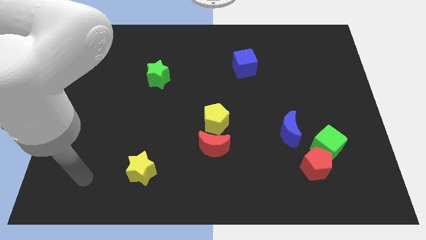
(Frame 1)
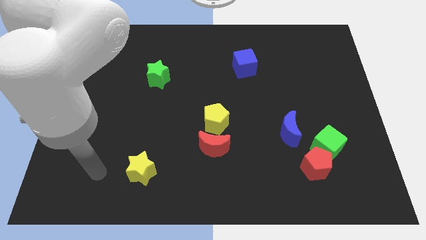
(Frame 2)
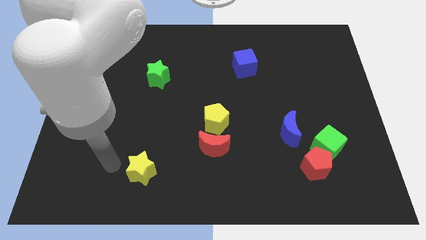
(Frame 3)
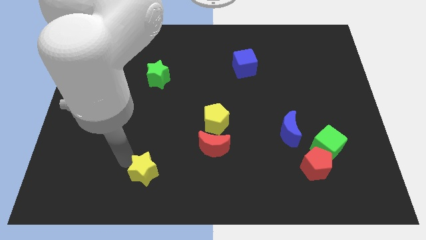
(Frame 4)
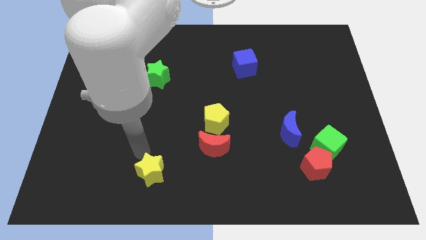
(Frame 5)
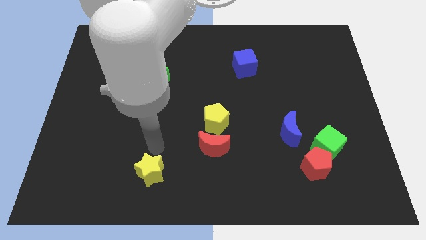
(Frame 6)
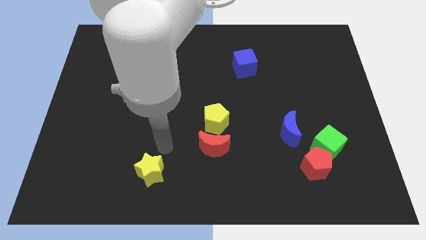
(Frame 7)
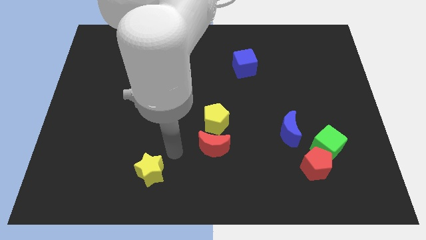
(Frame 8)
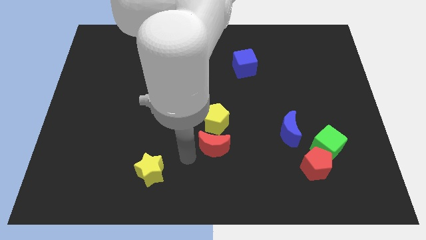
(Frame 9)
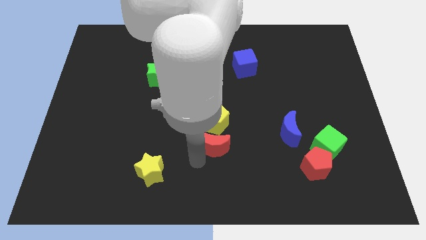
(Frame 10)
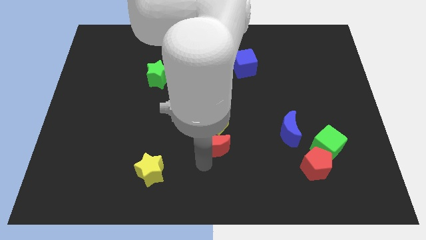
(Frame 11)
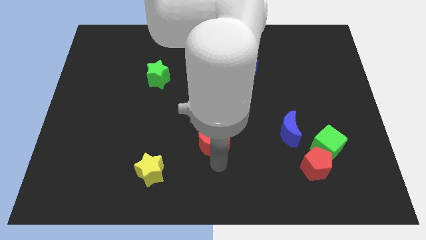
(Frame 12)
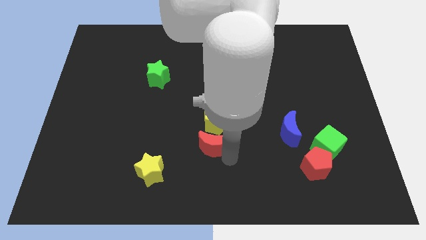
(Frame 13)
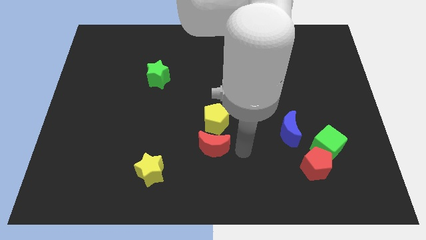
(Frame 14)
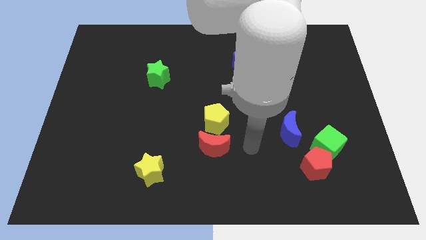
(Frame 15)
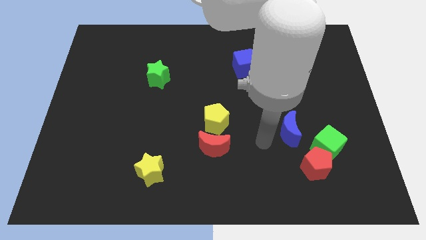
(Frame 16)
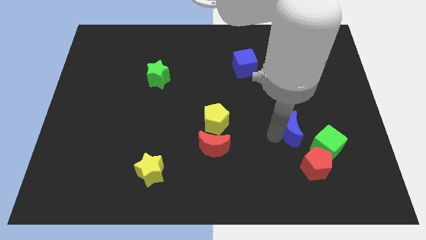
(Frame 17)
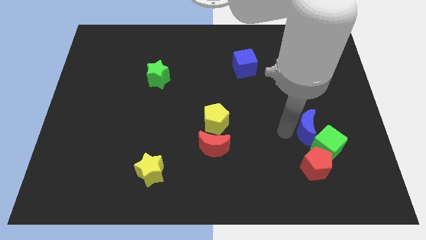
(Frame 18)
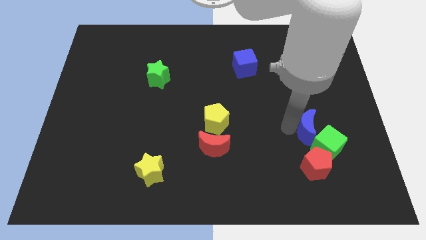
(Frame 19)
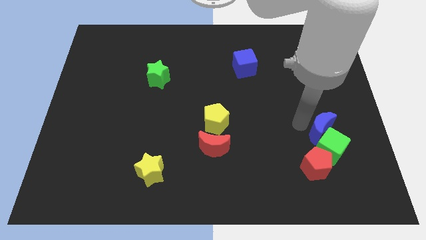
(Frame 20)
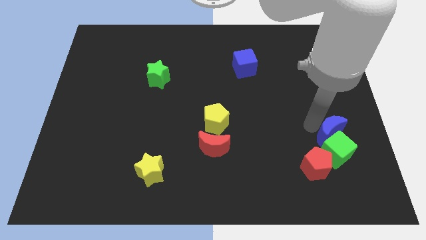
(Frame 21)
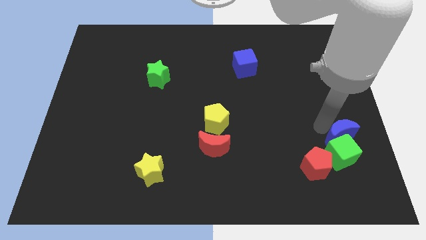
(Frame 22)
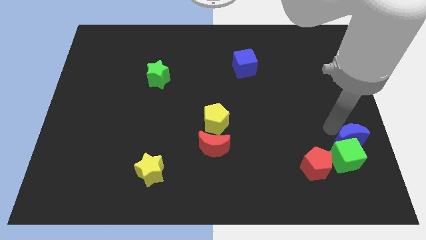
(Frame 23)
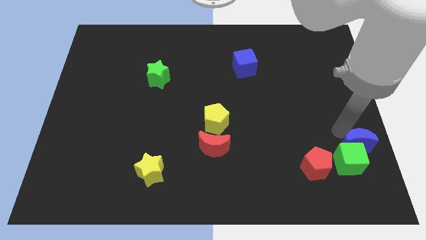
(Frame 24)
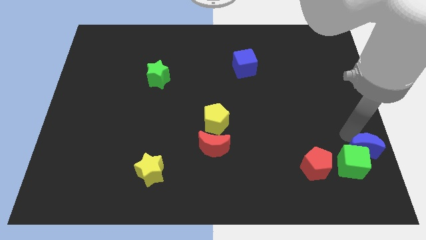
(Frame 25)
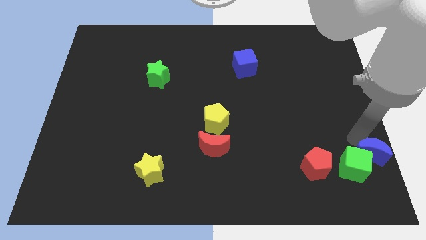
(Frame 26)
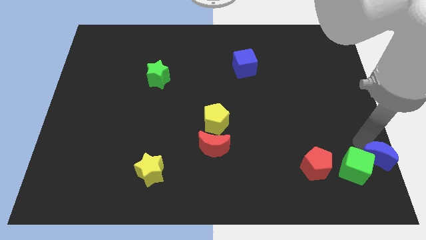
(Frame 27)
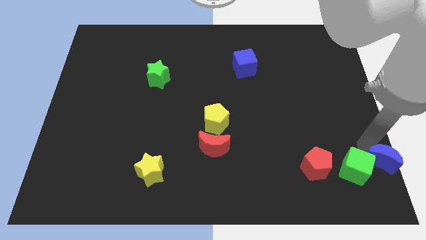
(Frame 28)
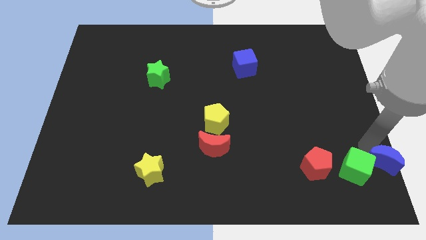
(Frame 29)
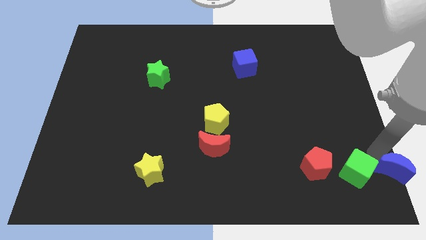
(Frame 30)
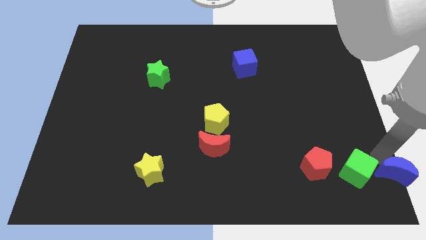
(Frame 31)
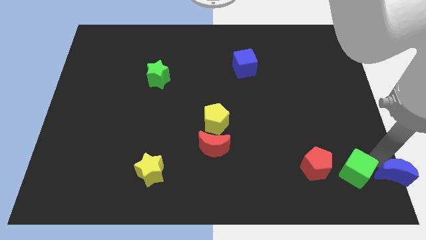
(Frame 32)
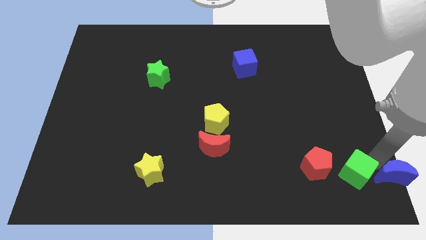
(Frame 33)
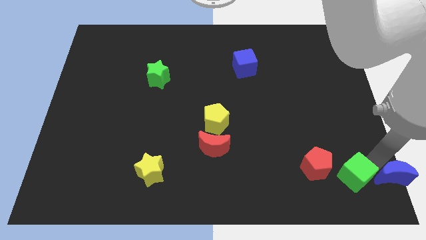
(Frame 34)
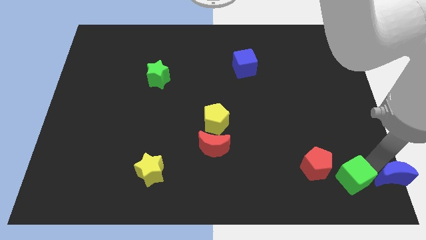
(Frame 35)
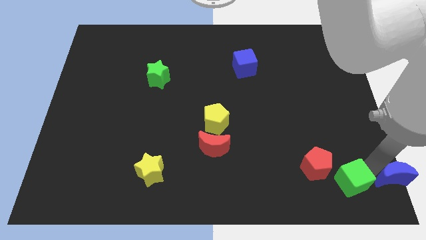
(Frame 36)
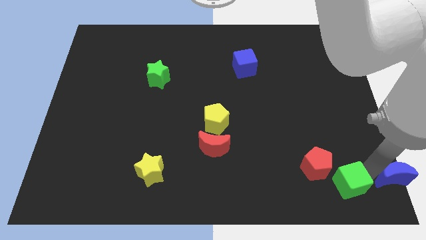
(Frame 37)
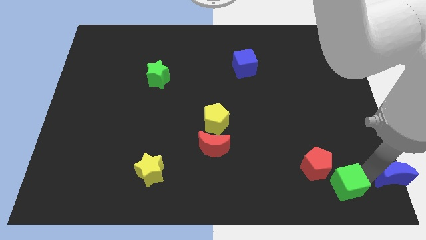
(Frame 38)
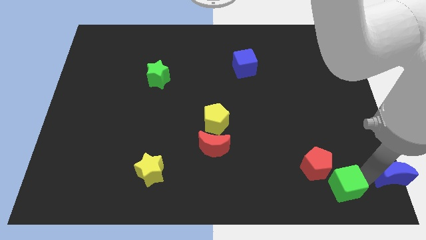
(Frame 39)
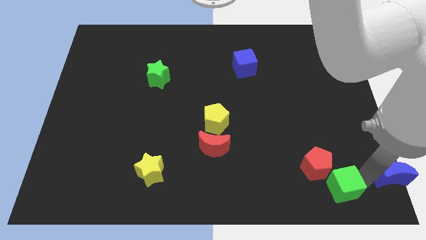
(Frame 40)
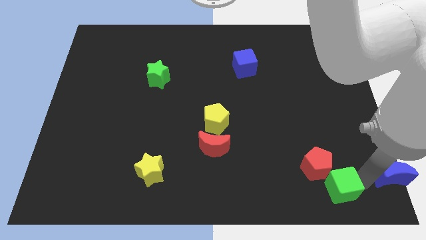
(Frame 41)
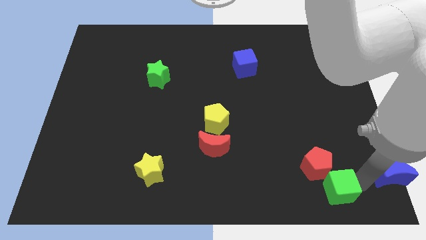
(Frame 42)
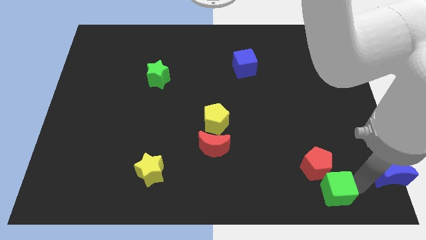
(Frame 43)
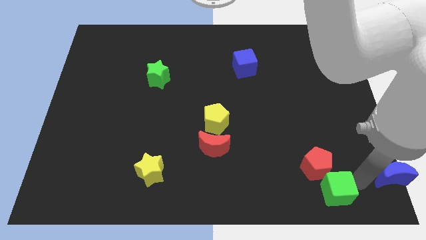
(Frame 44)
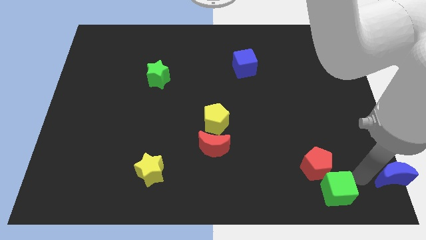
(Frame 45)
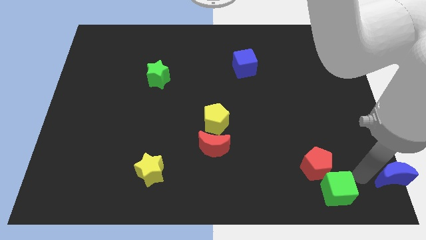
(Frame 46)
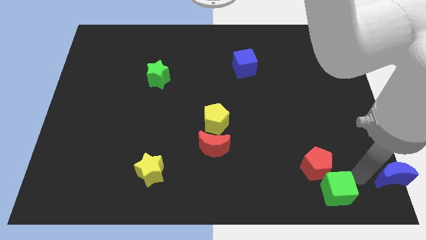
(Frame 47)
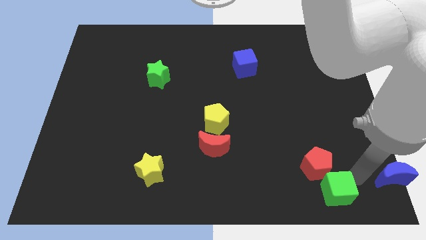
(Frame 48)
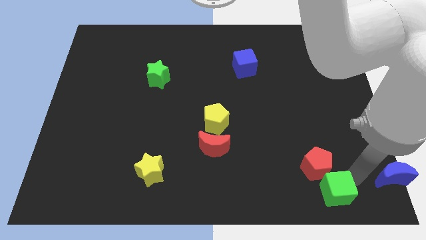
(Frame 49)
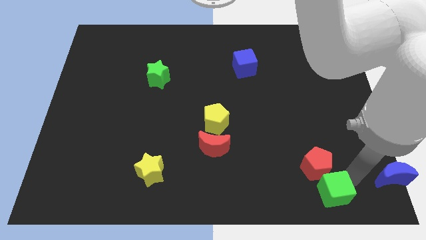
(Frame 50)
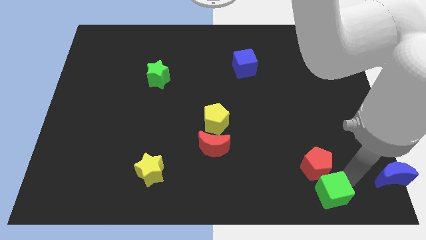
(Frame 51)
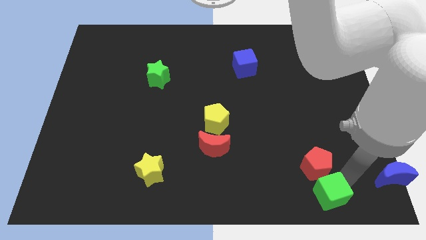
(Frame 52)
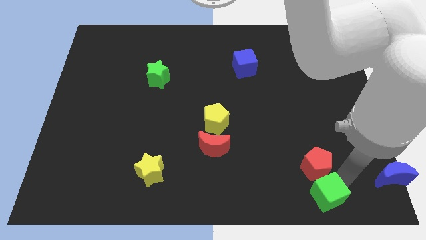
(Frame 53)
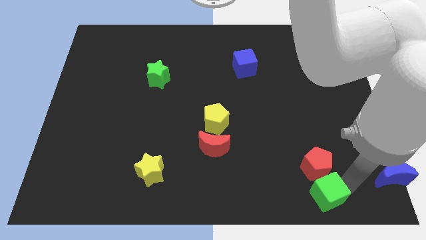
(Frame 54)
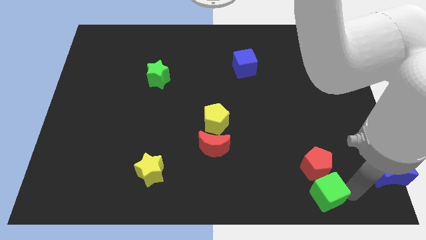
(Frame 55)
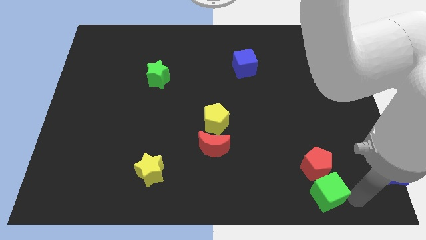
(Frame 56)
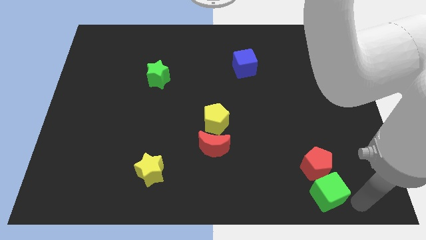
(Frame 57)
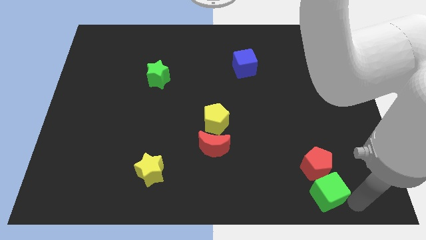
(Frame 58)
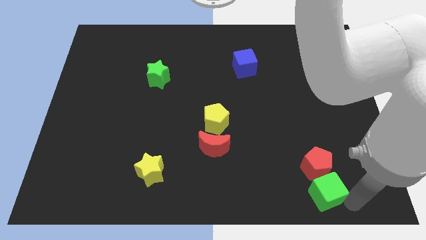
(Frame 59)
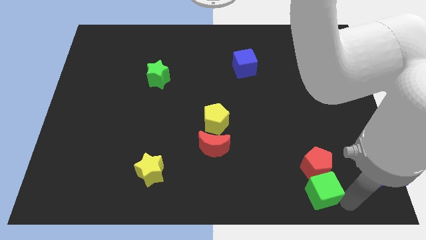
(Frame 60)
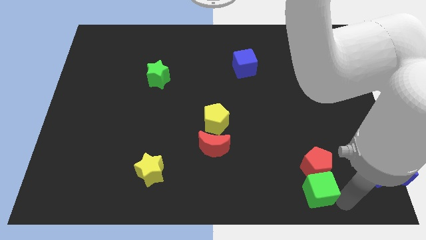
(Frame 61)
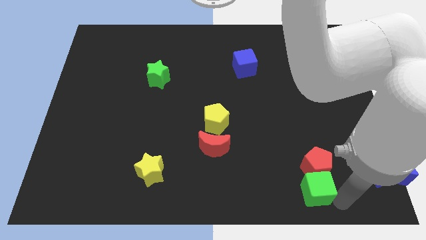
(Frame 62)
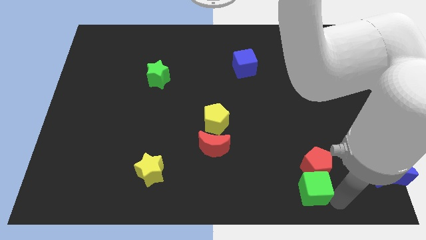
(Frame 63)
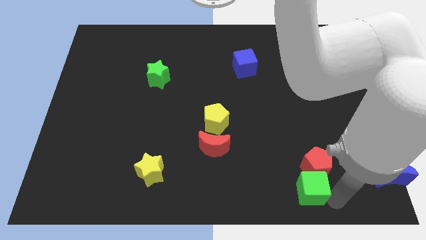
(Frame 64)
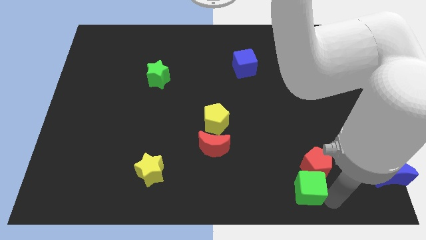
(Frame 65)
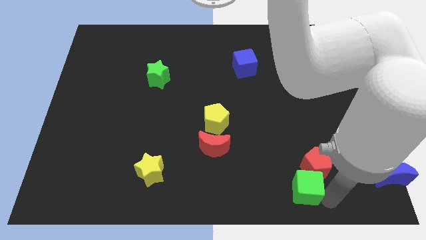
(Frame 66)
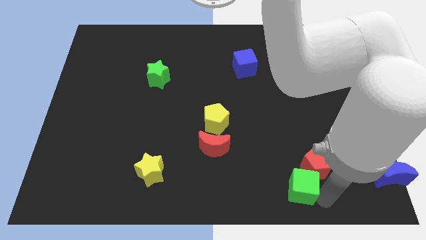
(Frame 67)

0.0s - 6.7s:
move the green cube to the left of the red pentagon

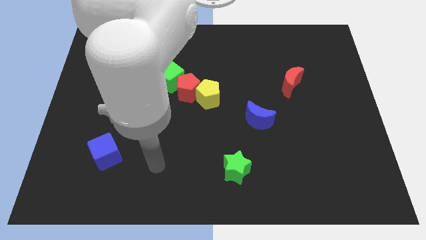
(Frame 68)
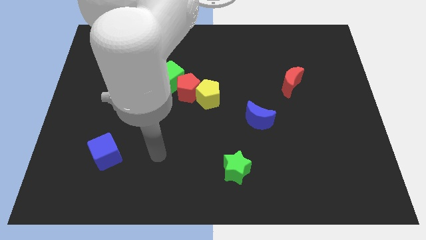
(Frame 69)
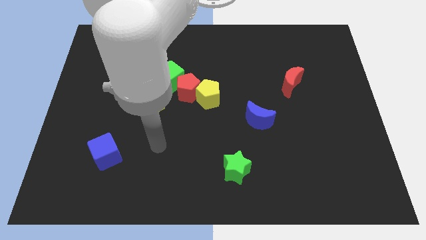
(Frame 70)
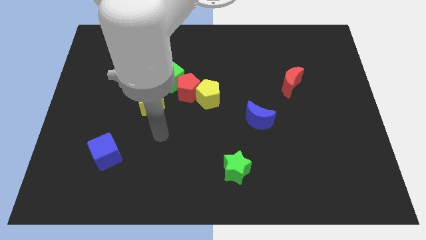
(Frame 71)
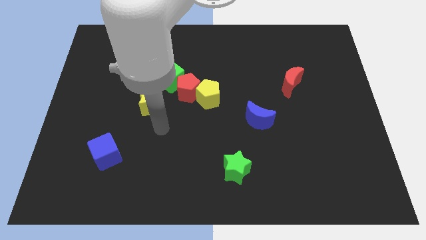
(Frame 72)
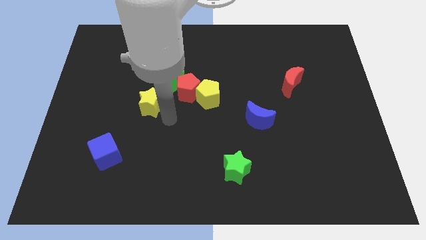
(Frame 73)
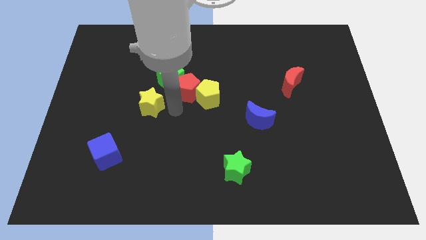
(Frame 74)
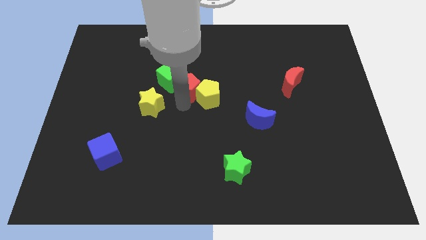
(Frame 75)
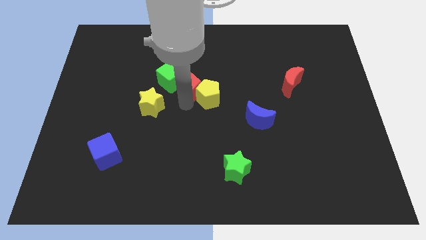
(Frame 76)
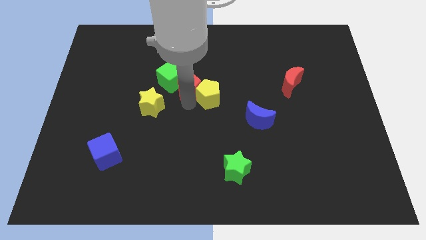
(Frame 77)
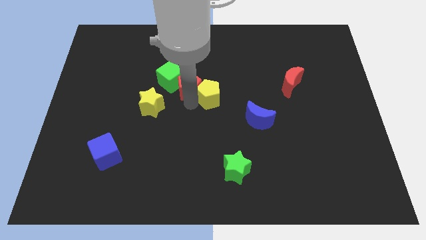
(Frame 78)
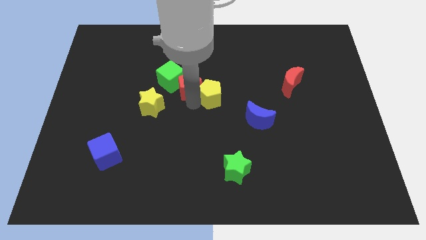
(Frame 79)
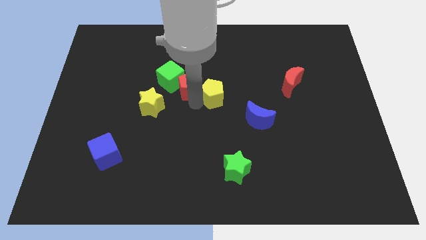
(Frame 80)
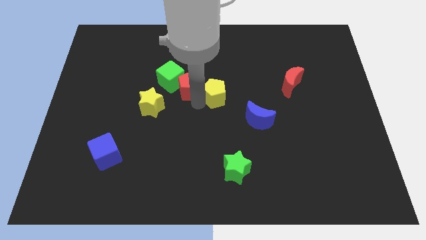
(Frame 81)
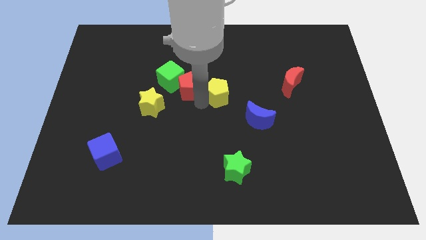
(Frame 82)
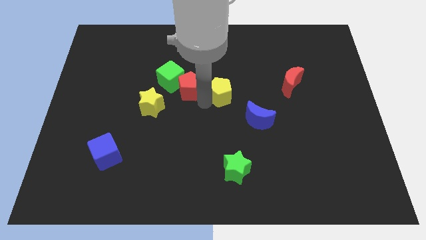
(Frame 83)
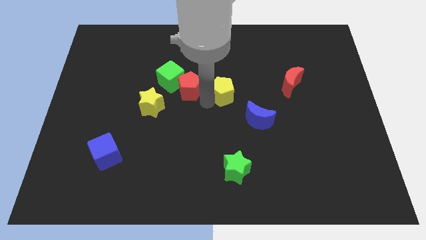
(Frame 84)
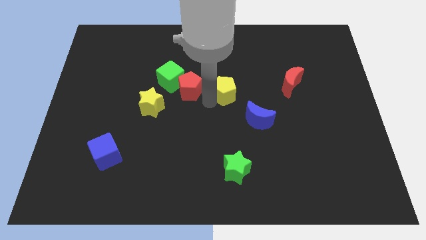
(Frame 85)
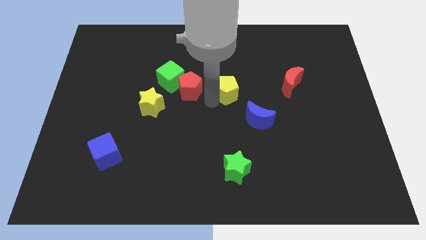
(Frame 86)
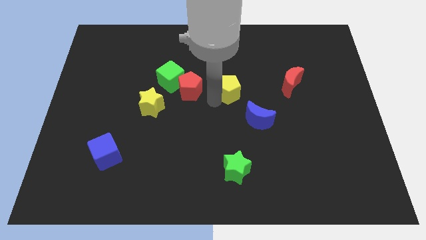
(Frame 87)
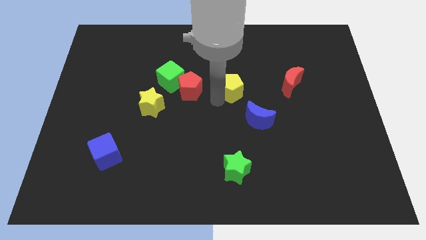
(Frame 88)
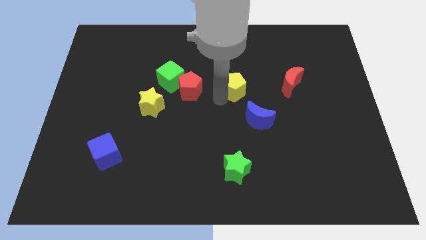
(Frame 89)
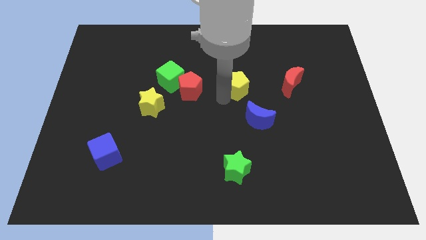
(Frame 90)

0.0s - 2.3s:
put the yellow pentagon to the top of the blue moon
